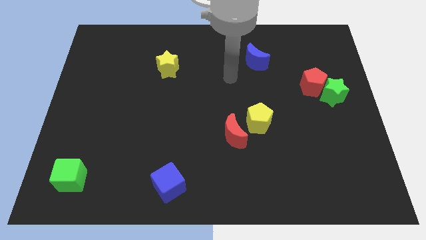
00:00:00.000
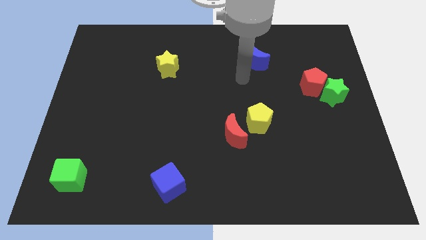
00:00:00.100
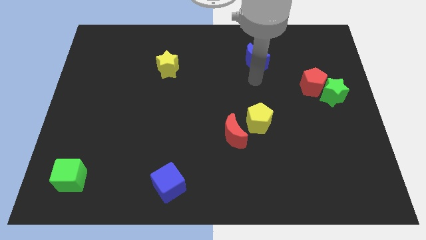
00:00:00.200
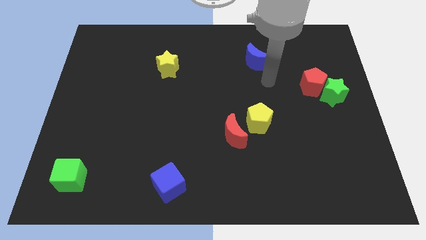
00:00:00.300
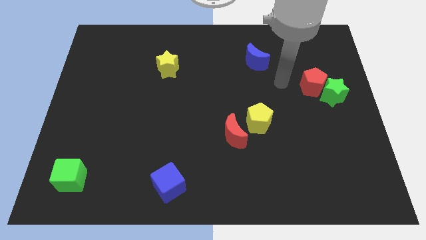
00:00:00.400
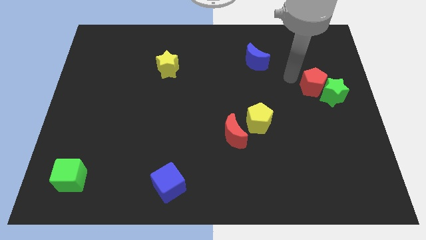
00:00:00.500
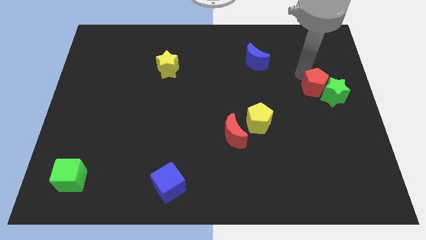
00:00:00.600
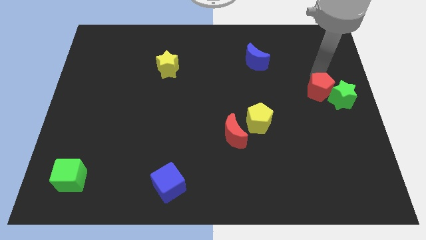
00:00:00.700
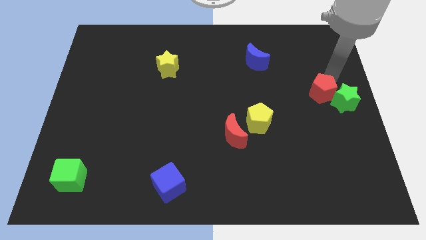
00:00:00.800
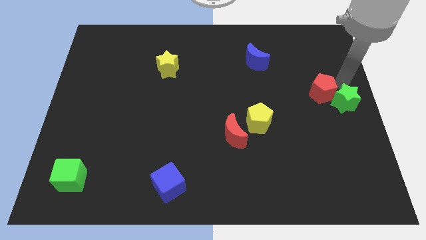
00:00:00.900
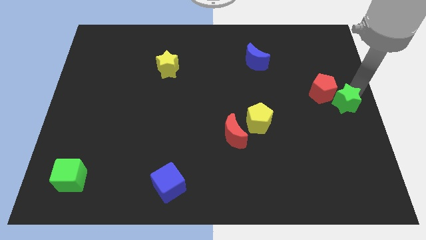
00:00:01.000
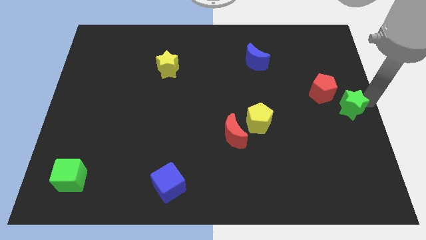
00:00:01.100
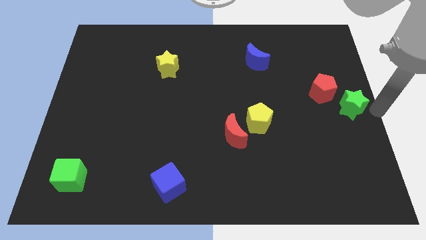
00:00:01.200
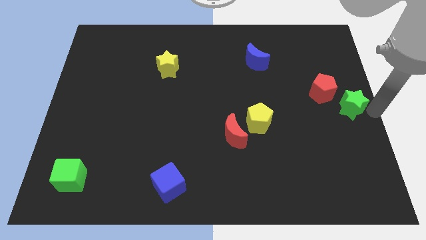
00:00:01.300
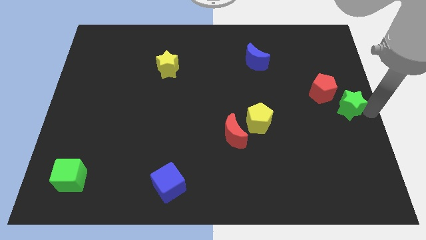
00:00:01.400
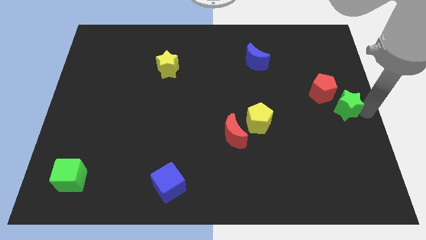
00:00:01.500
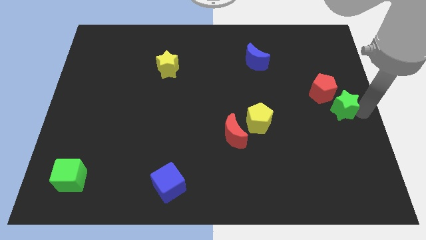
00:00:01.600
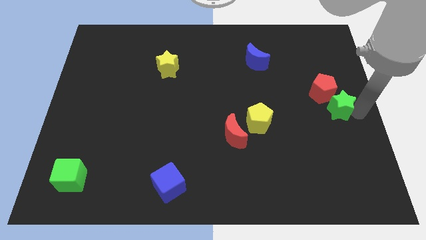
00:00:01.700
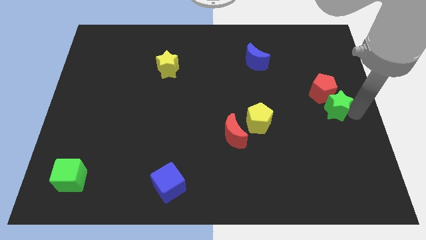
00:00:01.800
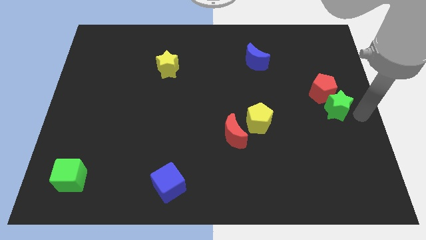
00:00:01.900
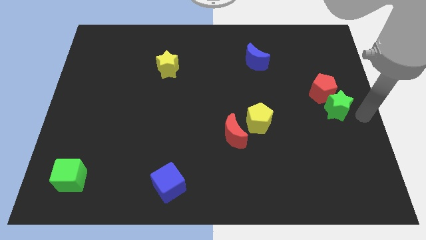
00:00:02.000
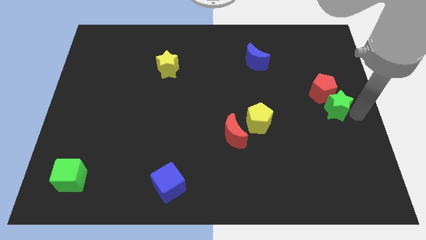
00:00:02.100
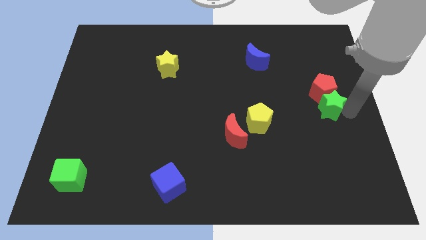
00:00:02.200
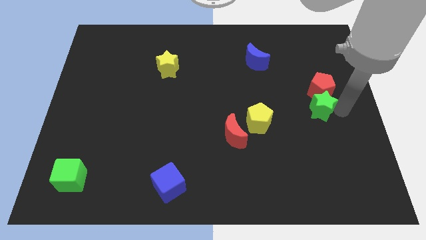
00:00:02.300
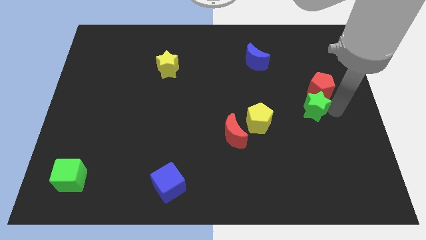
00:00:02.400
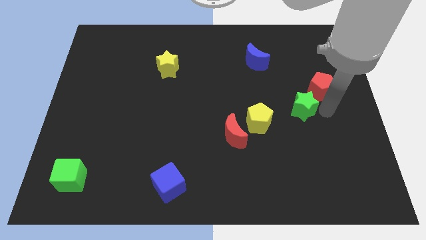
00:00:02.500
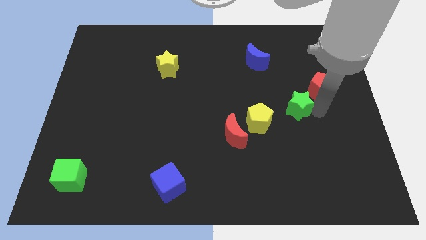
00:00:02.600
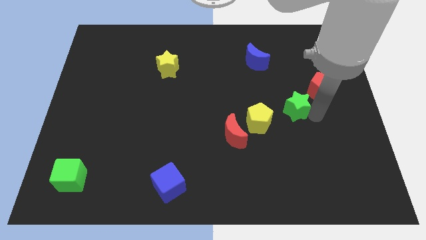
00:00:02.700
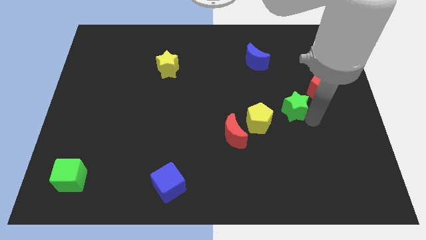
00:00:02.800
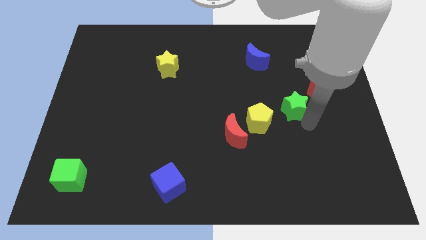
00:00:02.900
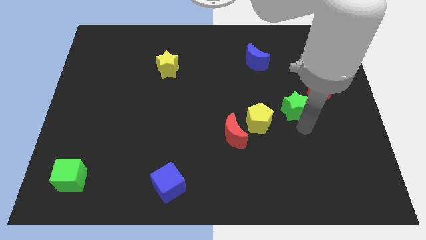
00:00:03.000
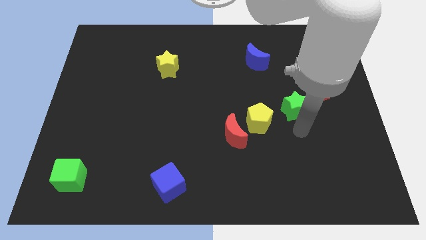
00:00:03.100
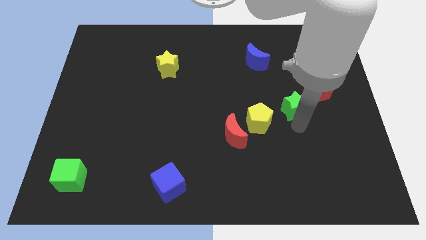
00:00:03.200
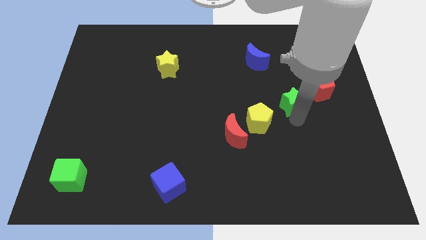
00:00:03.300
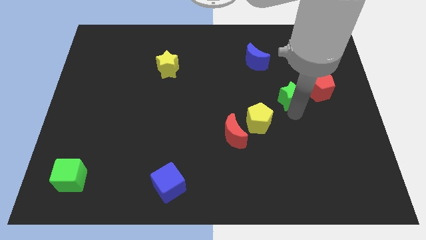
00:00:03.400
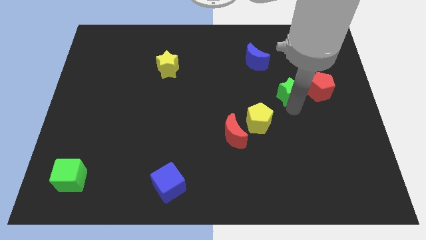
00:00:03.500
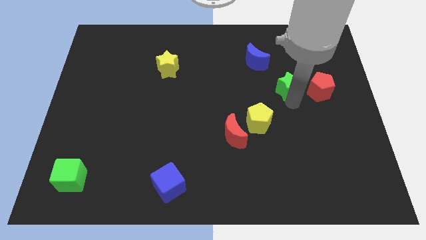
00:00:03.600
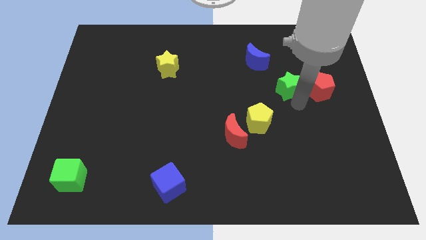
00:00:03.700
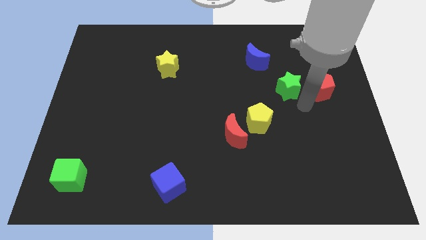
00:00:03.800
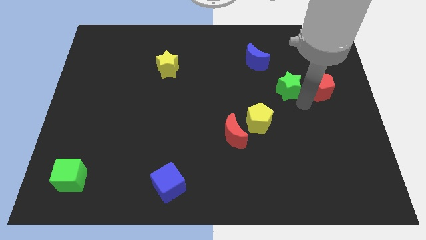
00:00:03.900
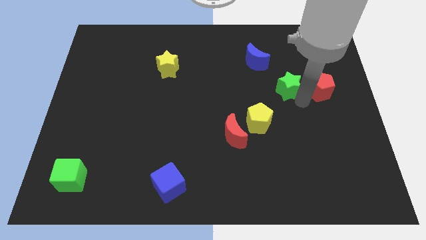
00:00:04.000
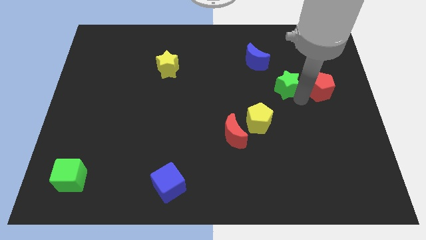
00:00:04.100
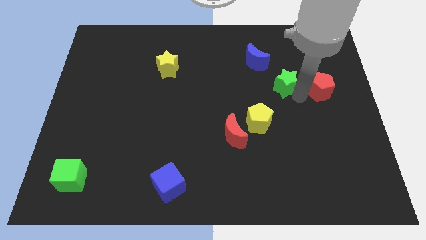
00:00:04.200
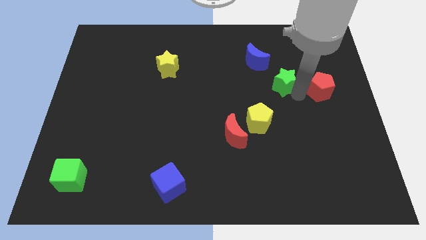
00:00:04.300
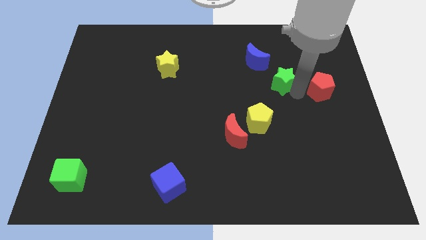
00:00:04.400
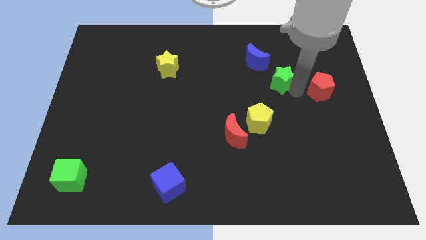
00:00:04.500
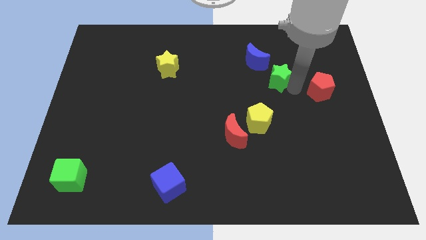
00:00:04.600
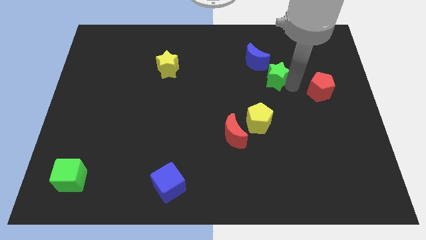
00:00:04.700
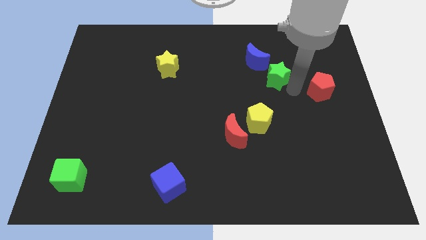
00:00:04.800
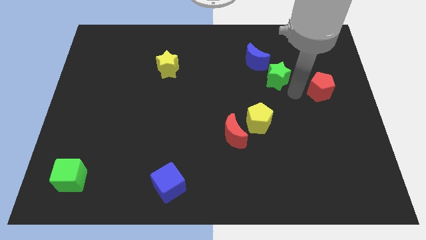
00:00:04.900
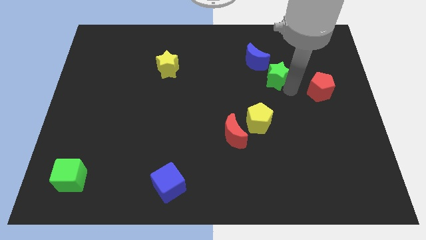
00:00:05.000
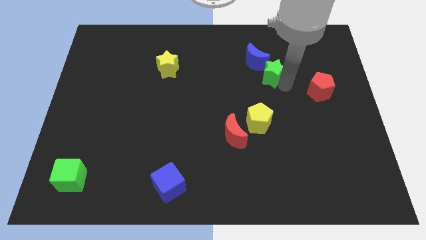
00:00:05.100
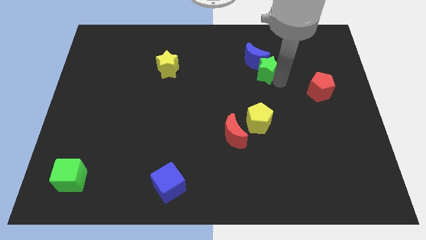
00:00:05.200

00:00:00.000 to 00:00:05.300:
push the green star to the blue moon

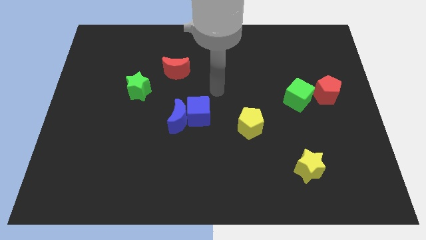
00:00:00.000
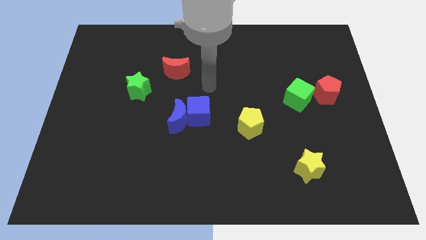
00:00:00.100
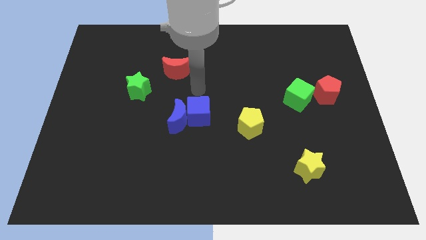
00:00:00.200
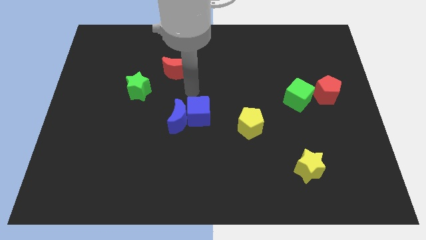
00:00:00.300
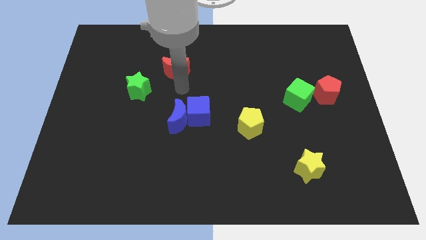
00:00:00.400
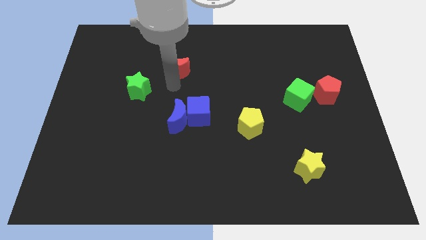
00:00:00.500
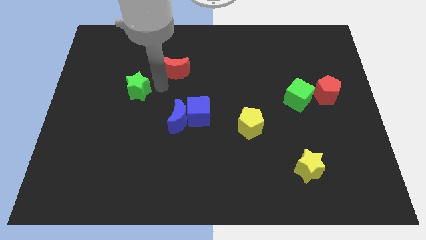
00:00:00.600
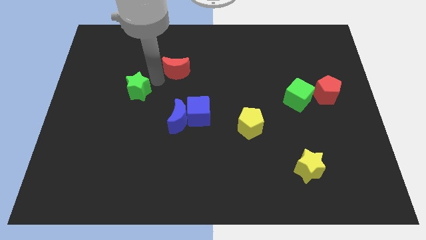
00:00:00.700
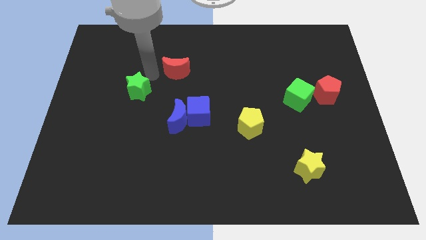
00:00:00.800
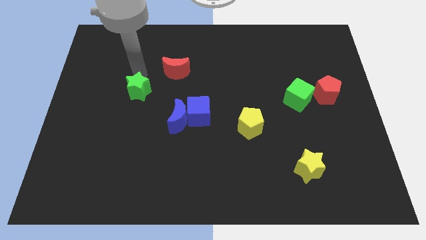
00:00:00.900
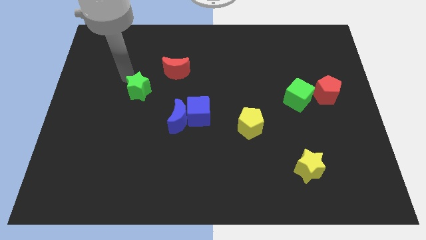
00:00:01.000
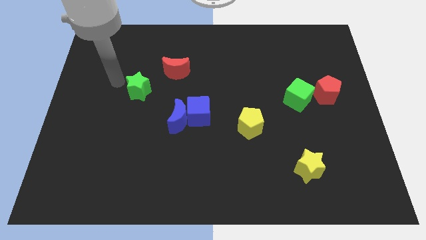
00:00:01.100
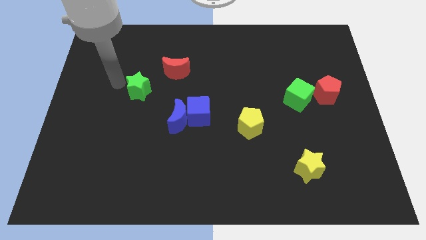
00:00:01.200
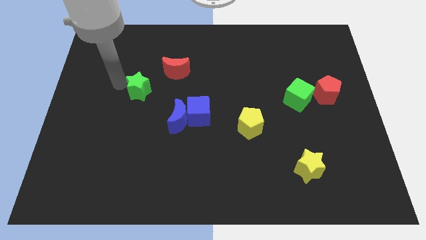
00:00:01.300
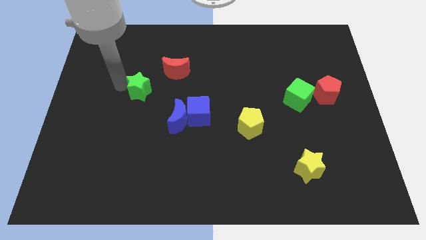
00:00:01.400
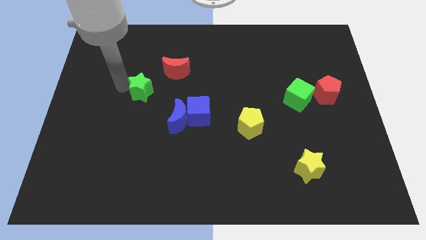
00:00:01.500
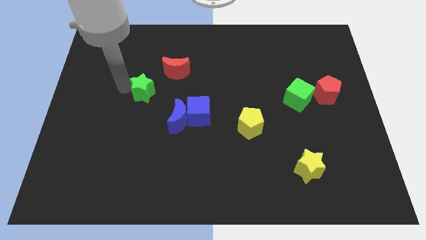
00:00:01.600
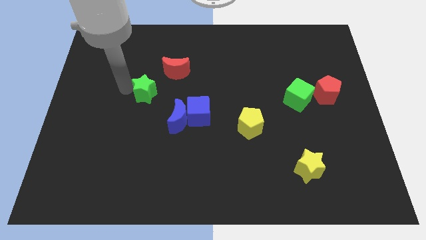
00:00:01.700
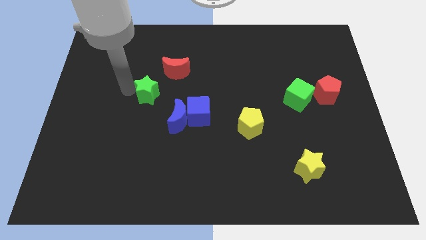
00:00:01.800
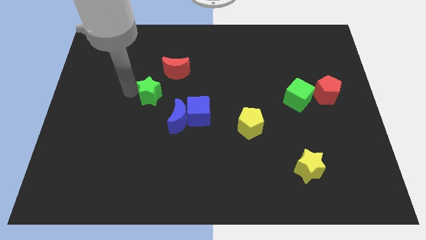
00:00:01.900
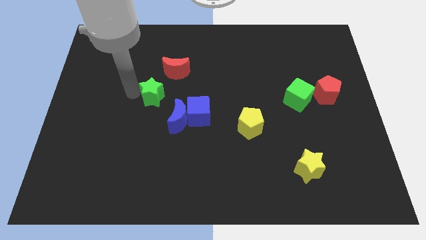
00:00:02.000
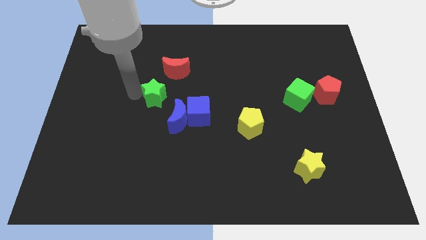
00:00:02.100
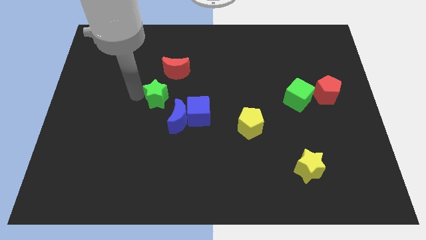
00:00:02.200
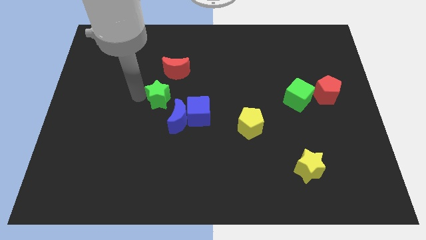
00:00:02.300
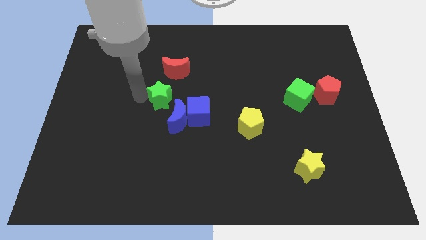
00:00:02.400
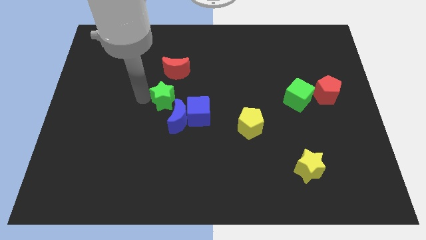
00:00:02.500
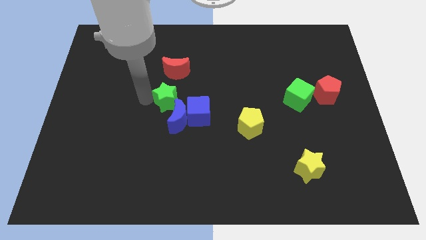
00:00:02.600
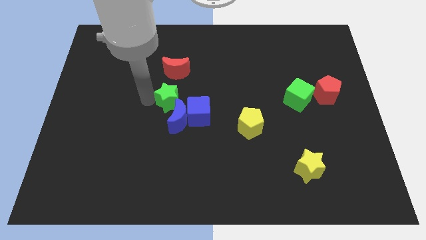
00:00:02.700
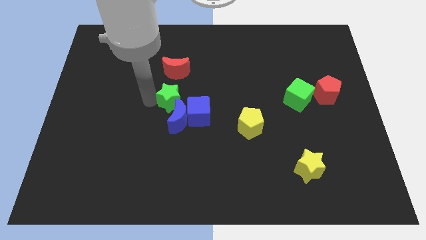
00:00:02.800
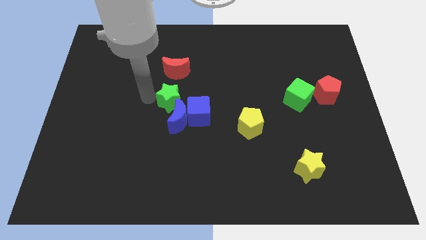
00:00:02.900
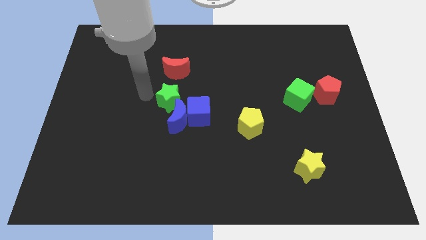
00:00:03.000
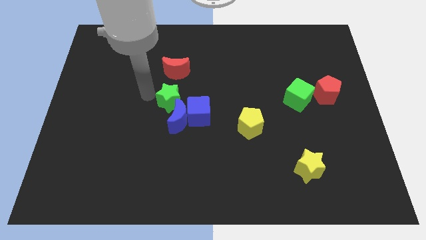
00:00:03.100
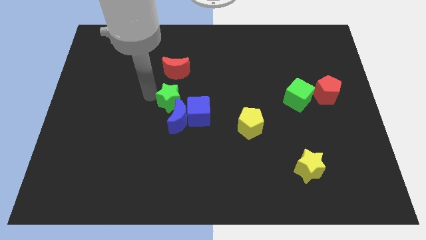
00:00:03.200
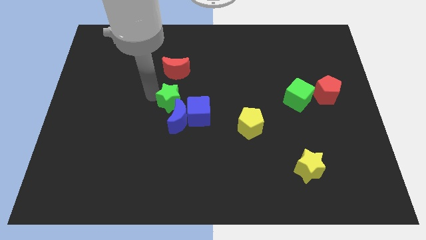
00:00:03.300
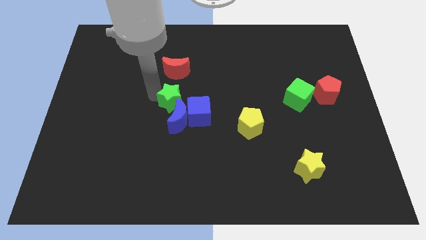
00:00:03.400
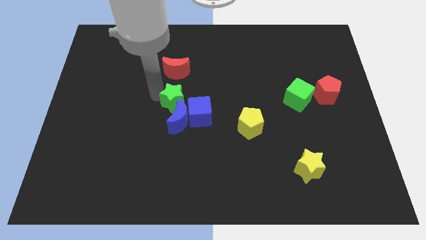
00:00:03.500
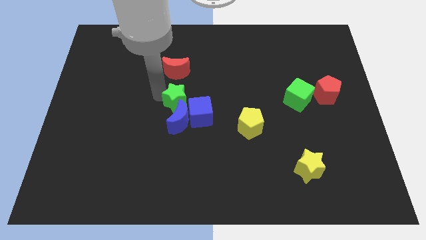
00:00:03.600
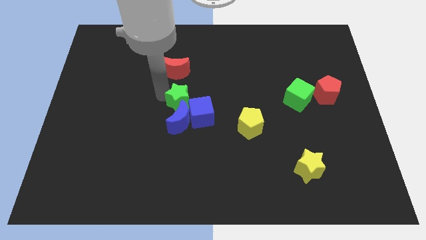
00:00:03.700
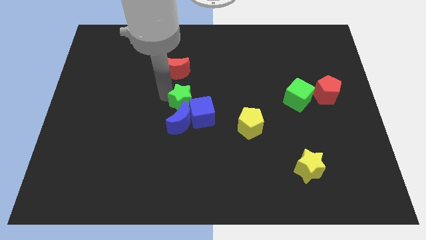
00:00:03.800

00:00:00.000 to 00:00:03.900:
move the green star to the blue cube
